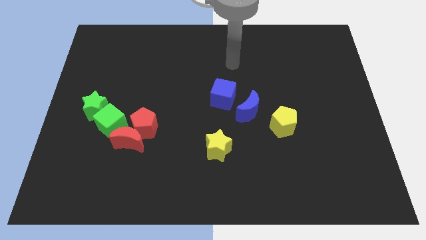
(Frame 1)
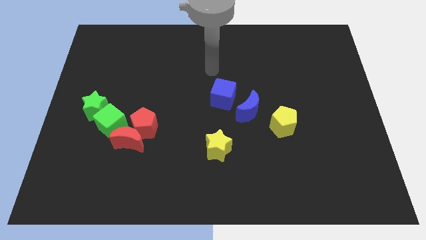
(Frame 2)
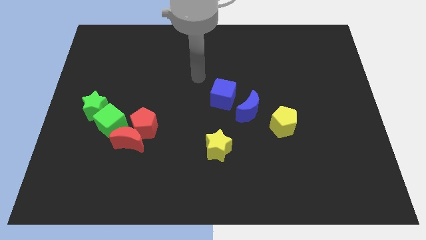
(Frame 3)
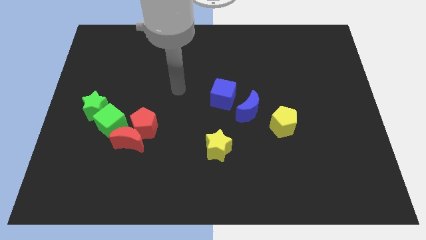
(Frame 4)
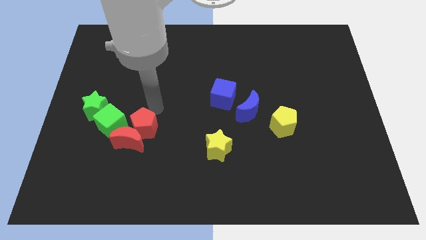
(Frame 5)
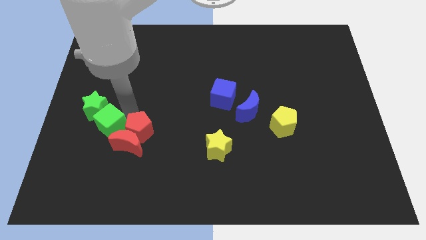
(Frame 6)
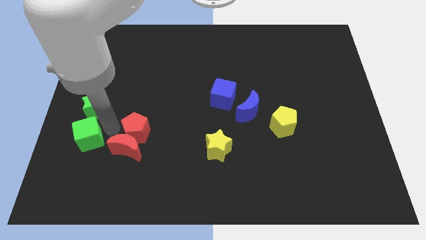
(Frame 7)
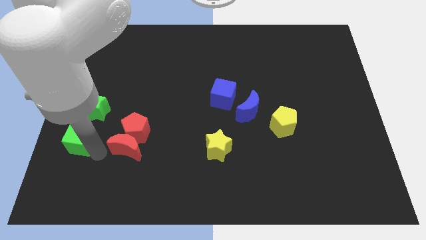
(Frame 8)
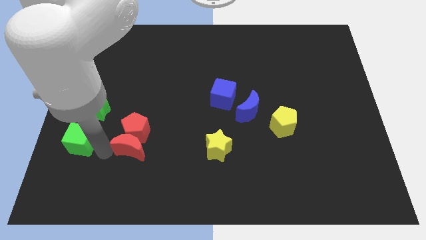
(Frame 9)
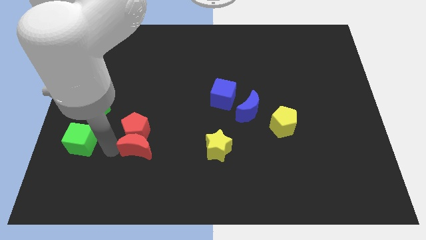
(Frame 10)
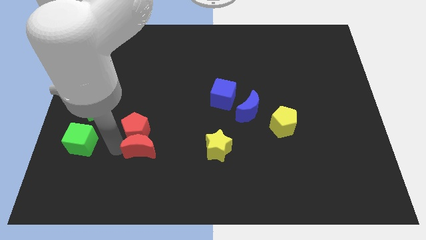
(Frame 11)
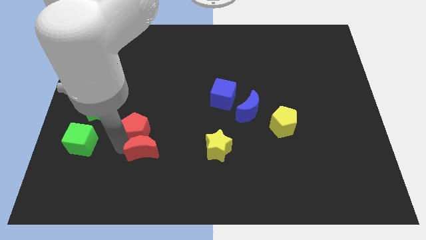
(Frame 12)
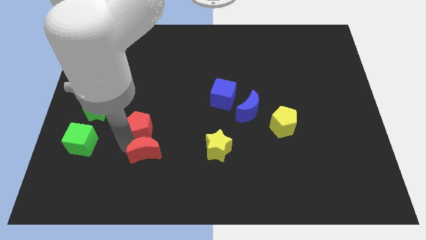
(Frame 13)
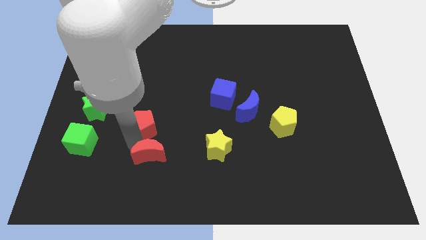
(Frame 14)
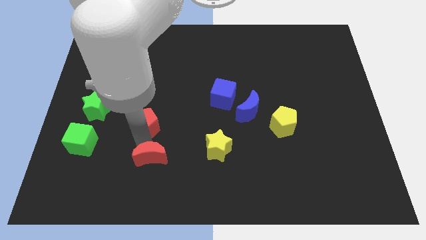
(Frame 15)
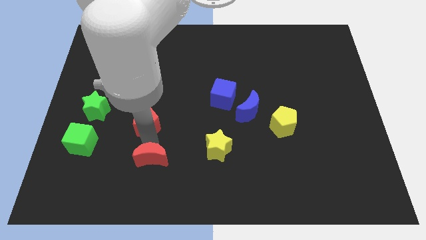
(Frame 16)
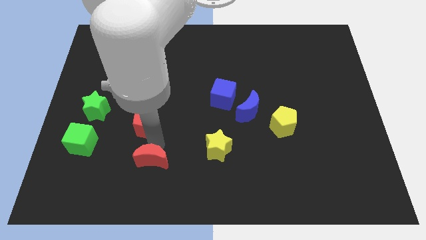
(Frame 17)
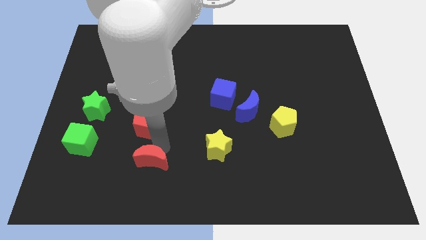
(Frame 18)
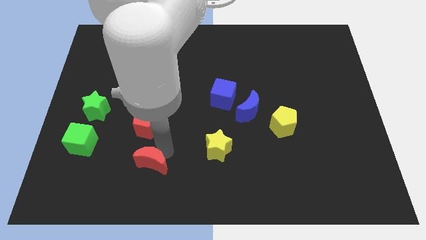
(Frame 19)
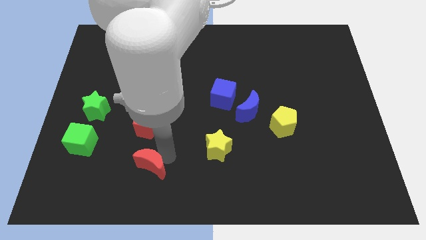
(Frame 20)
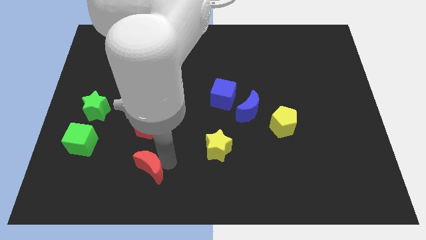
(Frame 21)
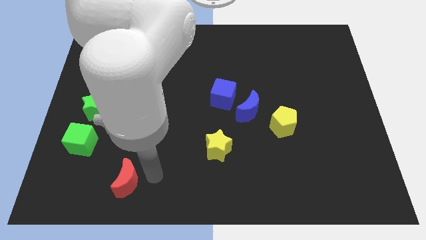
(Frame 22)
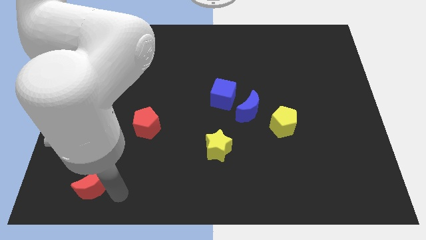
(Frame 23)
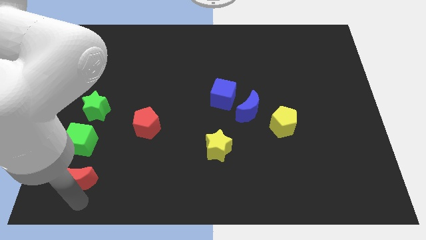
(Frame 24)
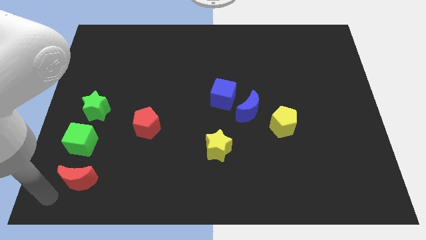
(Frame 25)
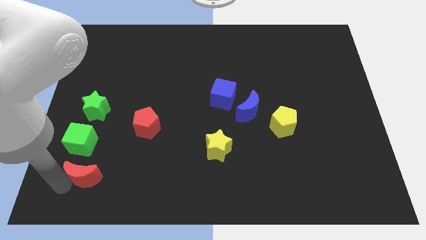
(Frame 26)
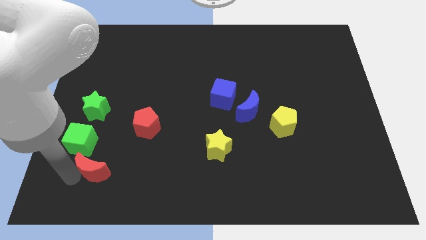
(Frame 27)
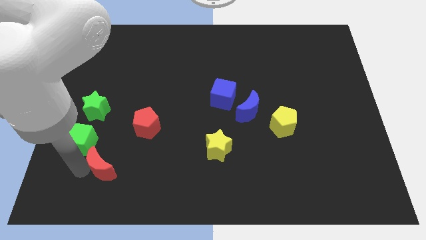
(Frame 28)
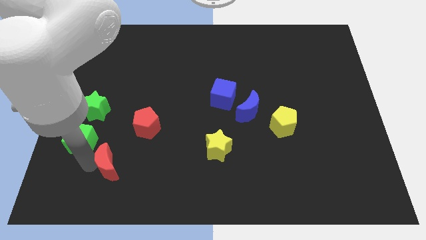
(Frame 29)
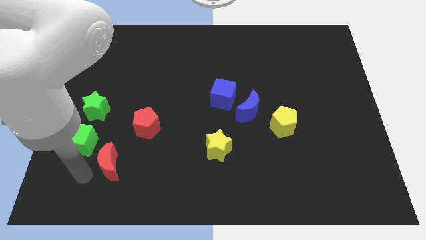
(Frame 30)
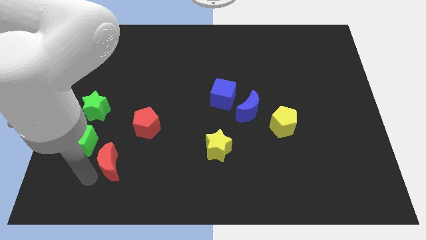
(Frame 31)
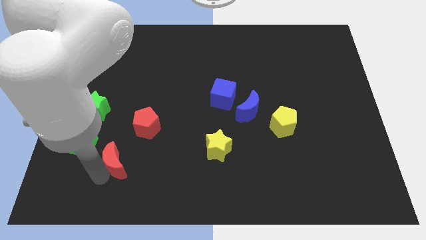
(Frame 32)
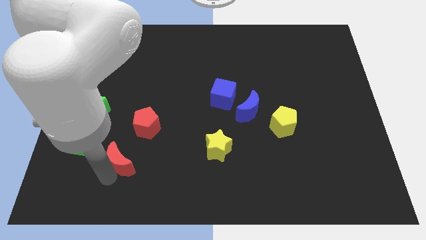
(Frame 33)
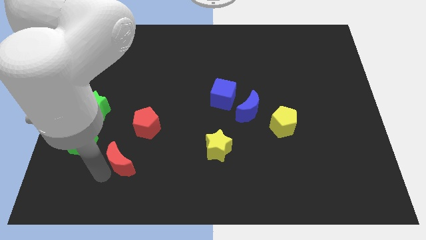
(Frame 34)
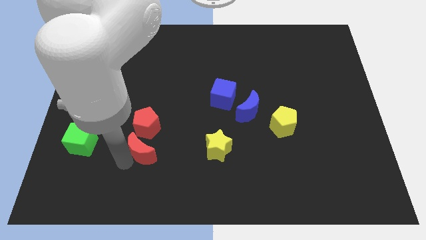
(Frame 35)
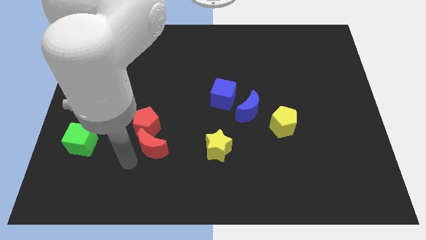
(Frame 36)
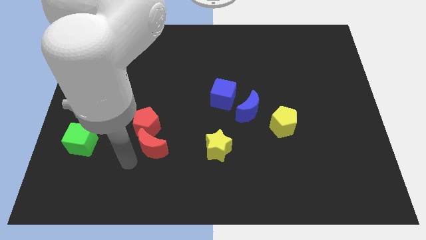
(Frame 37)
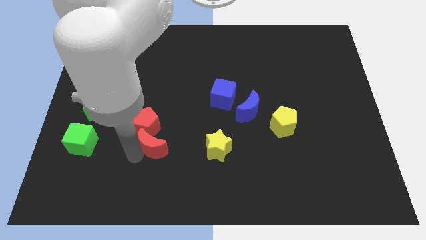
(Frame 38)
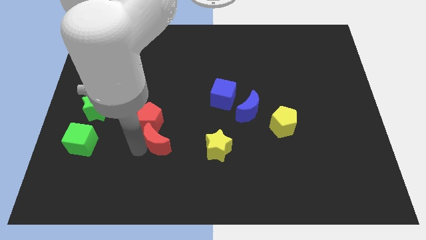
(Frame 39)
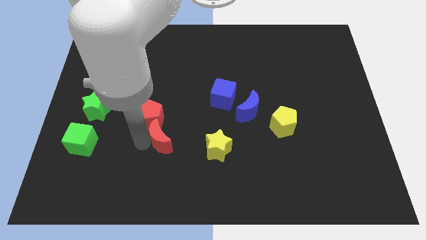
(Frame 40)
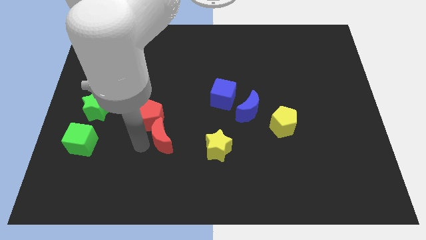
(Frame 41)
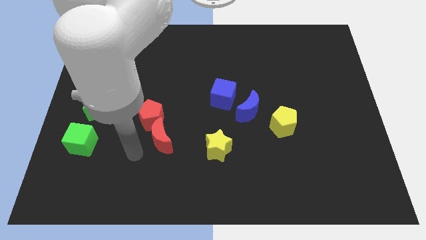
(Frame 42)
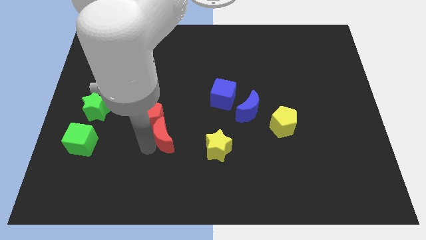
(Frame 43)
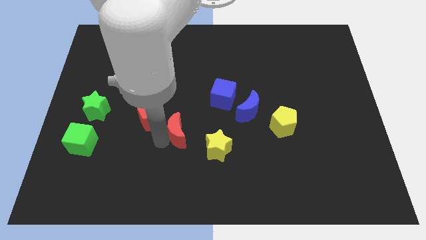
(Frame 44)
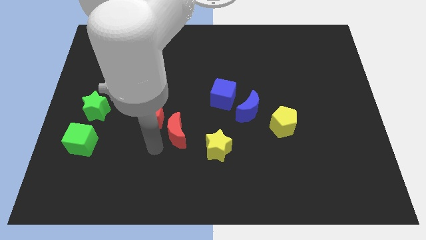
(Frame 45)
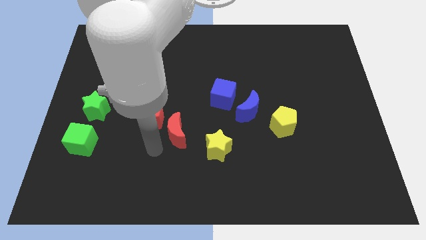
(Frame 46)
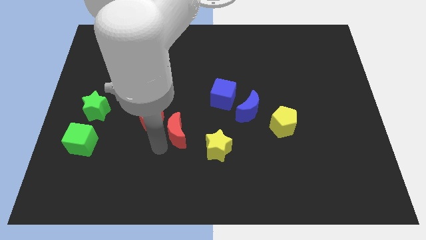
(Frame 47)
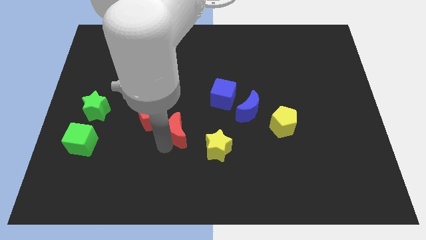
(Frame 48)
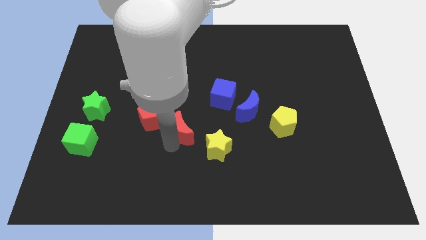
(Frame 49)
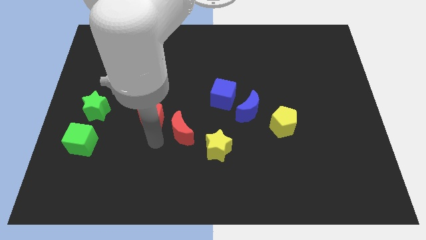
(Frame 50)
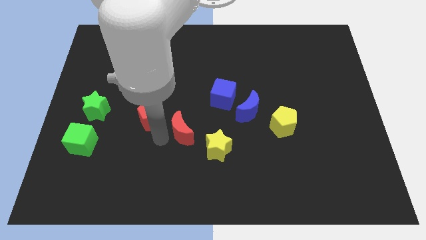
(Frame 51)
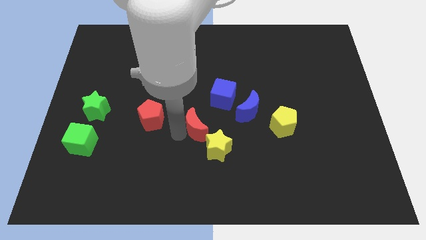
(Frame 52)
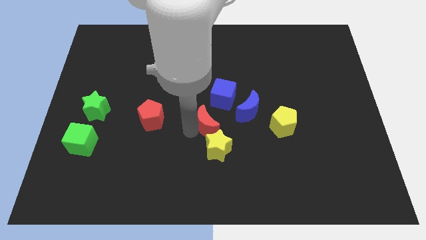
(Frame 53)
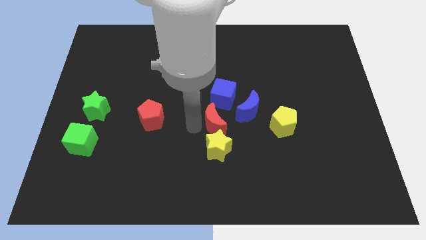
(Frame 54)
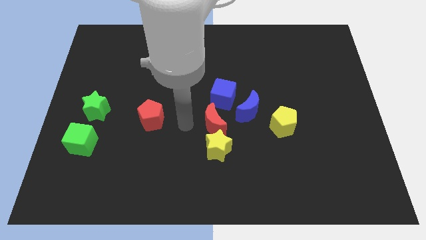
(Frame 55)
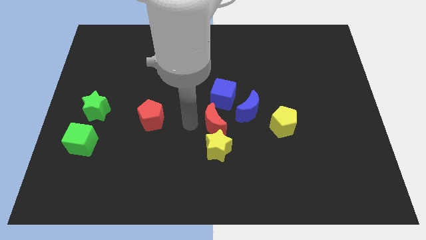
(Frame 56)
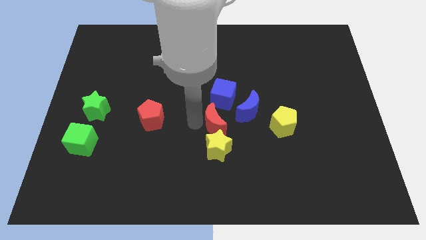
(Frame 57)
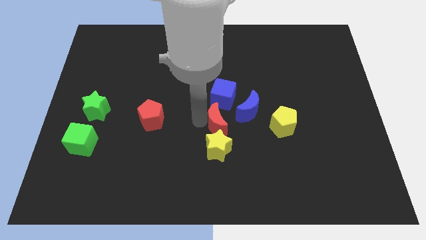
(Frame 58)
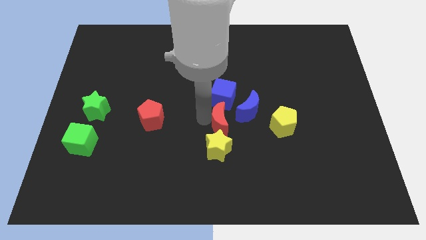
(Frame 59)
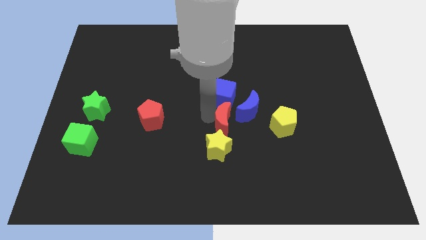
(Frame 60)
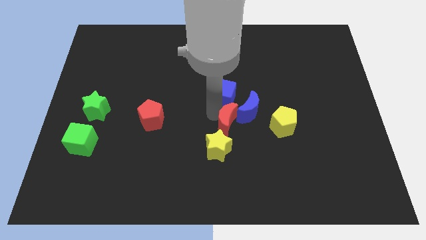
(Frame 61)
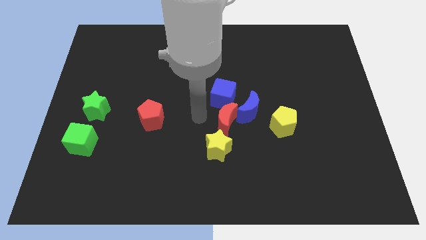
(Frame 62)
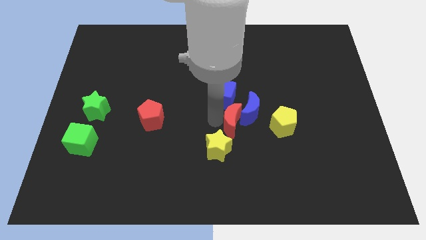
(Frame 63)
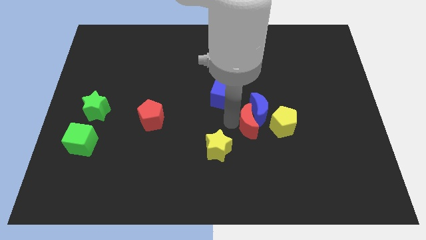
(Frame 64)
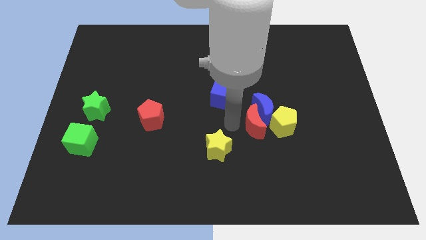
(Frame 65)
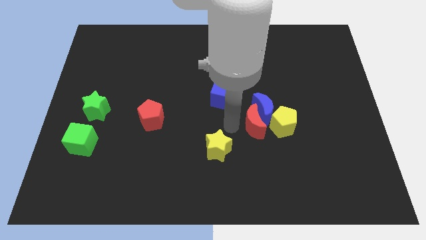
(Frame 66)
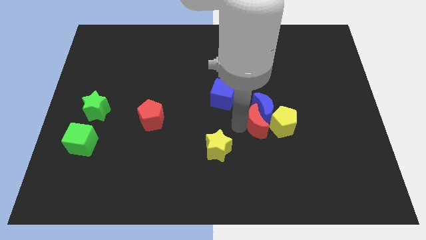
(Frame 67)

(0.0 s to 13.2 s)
slide the red moon next to the yellow pentagon
